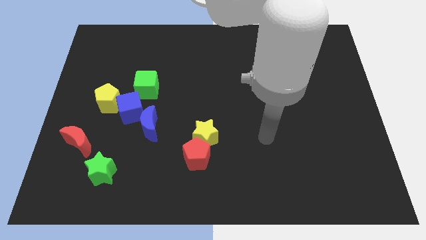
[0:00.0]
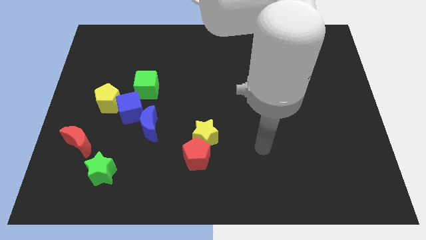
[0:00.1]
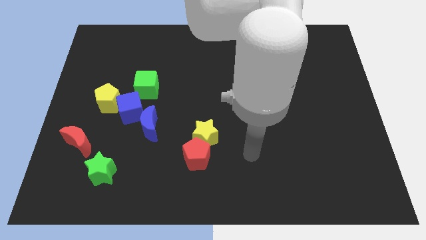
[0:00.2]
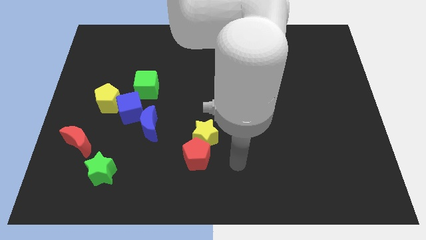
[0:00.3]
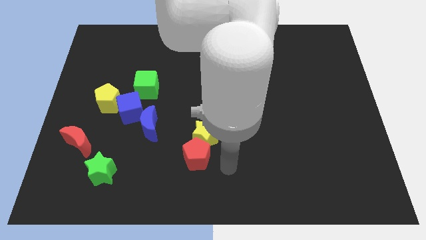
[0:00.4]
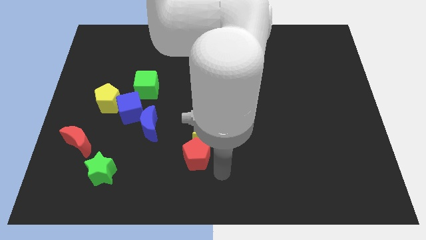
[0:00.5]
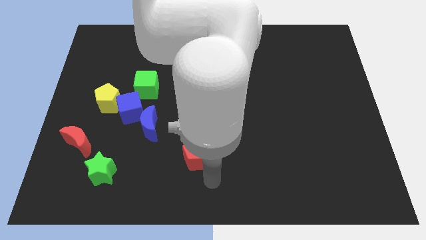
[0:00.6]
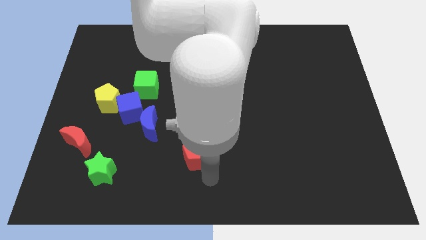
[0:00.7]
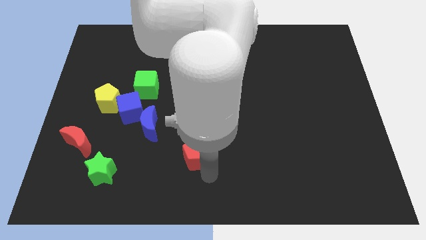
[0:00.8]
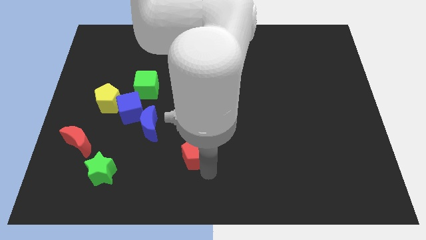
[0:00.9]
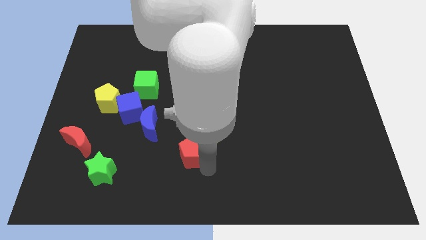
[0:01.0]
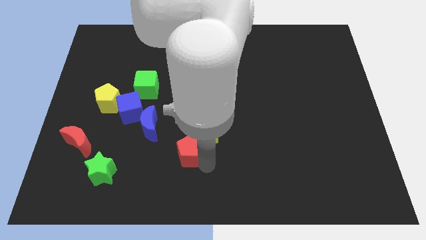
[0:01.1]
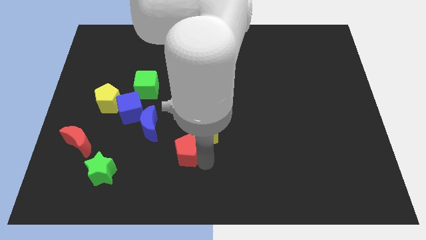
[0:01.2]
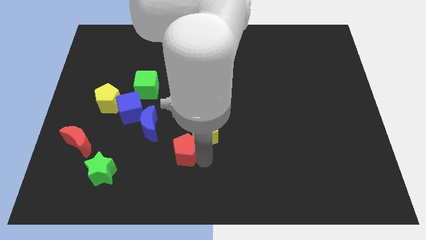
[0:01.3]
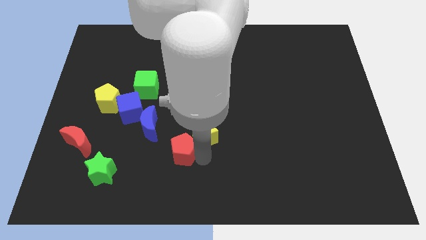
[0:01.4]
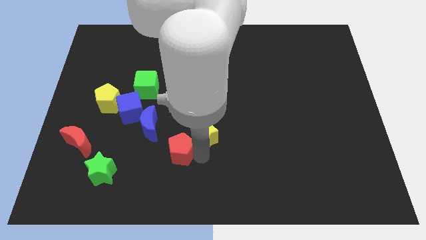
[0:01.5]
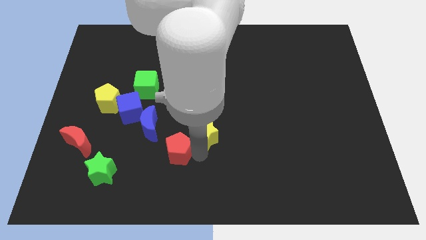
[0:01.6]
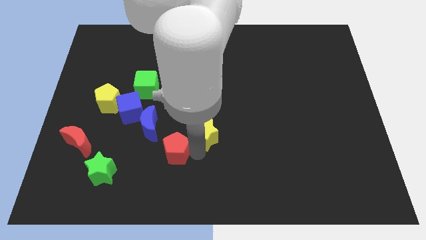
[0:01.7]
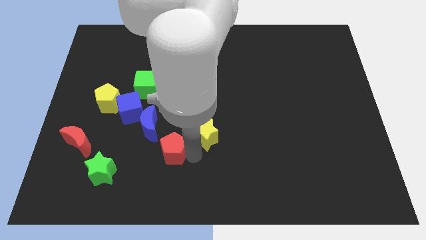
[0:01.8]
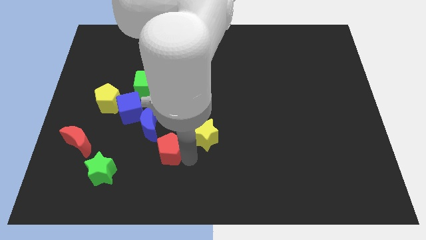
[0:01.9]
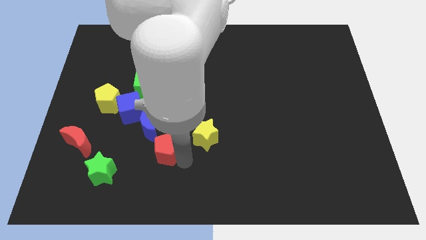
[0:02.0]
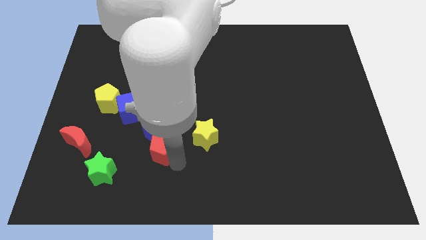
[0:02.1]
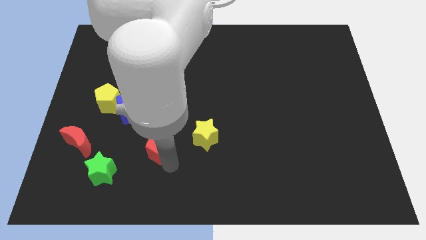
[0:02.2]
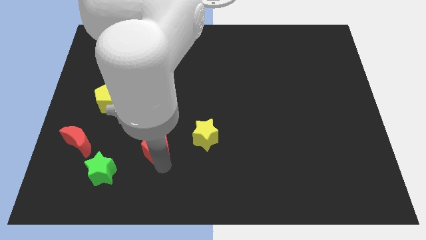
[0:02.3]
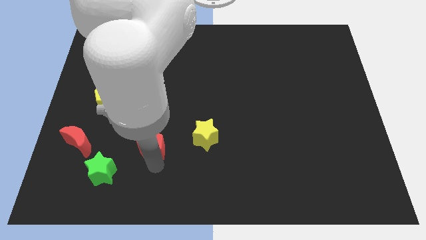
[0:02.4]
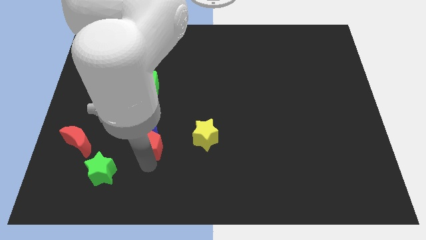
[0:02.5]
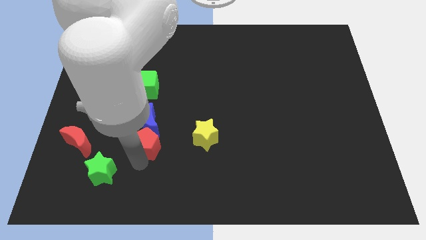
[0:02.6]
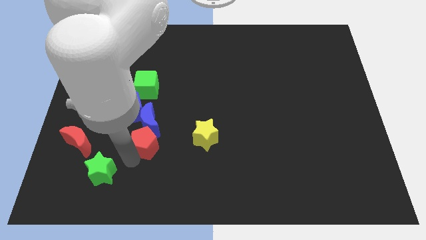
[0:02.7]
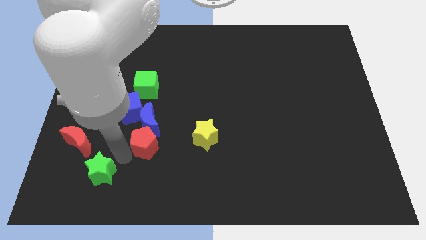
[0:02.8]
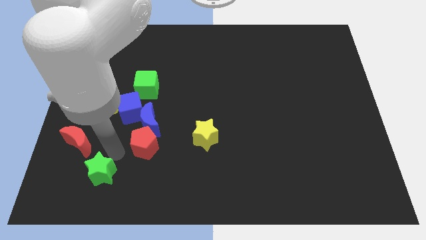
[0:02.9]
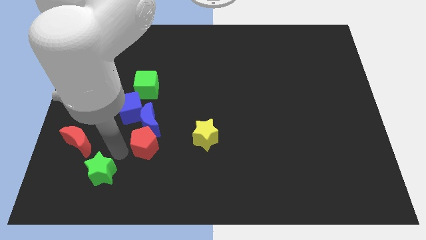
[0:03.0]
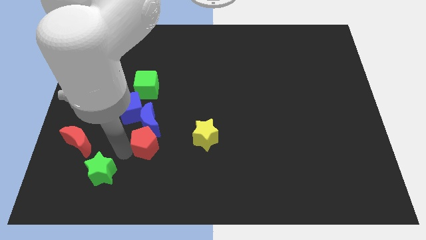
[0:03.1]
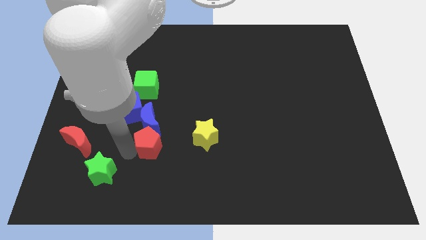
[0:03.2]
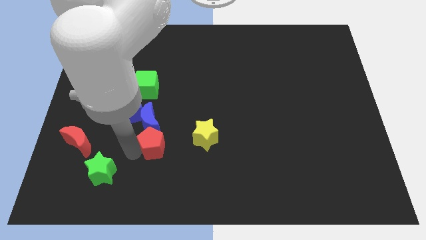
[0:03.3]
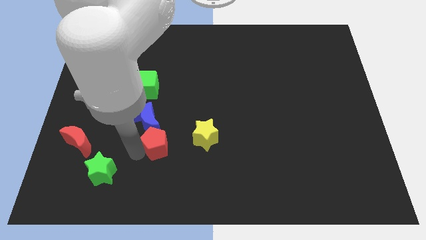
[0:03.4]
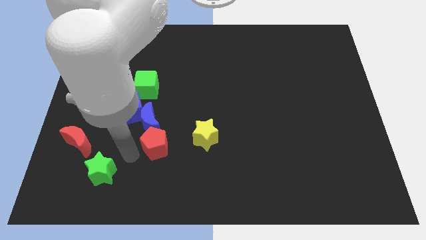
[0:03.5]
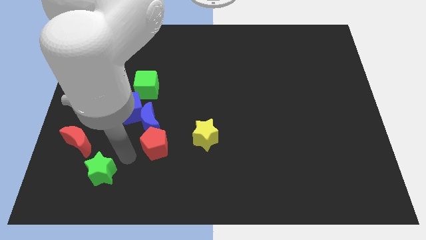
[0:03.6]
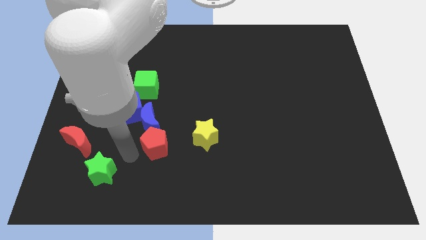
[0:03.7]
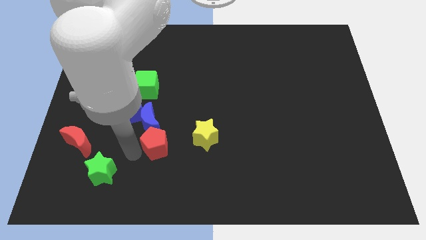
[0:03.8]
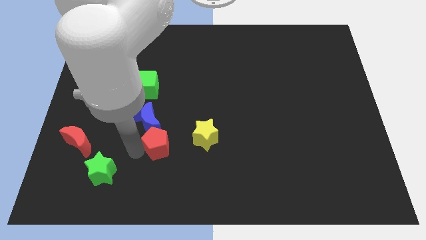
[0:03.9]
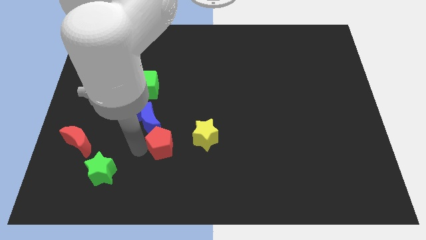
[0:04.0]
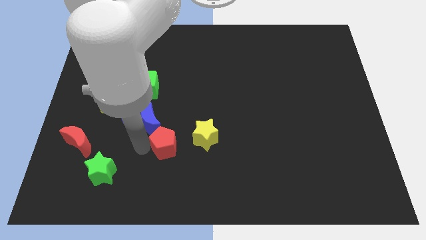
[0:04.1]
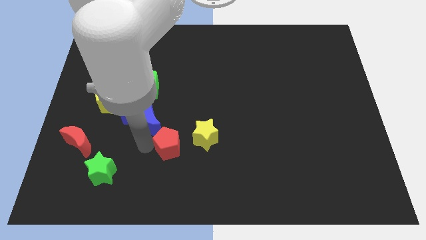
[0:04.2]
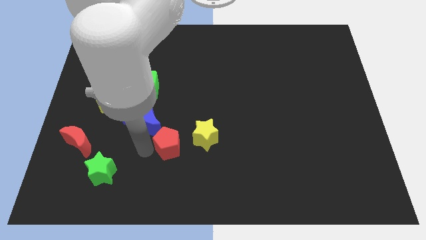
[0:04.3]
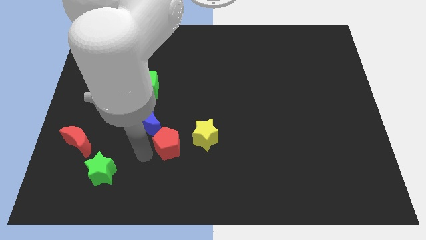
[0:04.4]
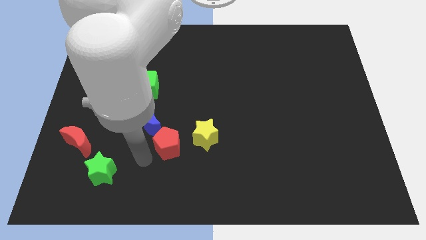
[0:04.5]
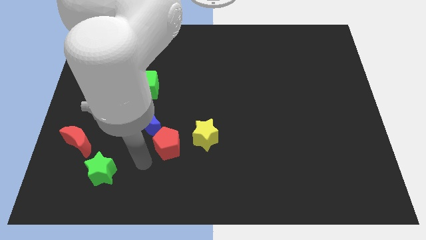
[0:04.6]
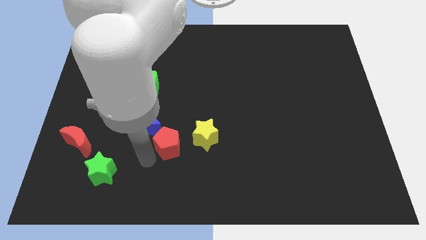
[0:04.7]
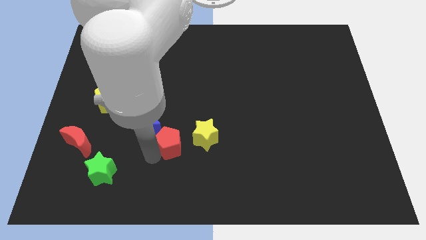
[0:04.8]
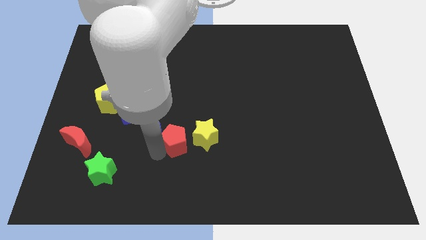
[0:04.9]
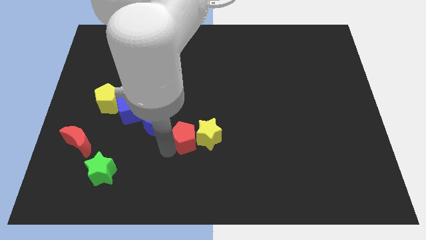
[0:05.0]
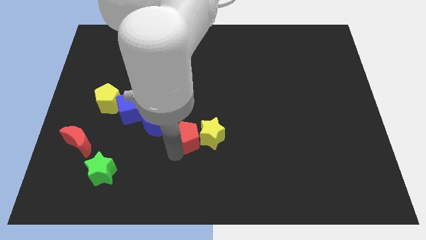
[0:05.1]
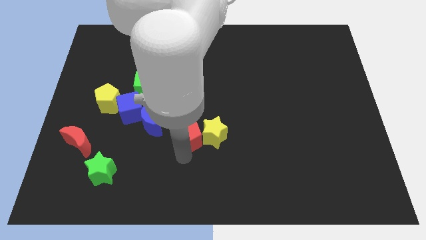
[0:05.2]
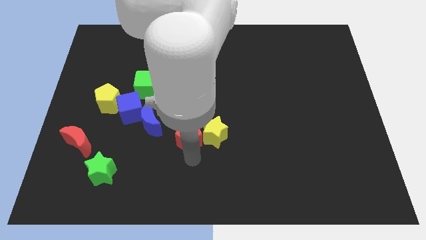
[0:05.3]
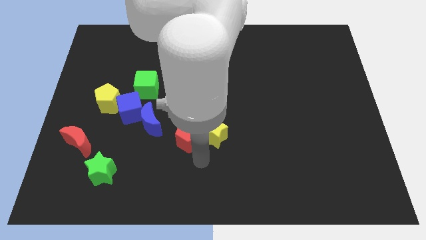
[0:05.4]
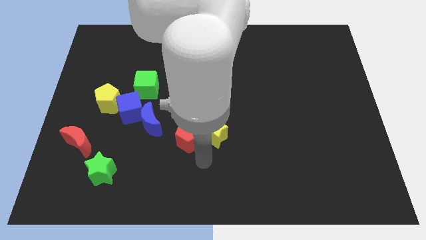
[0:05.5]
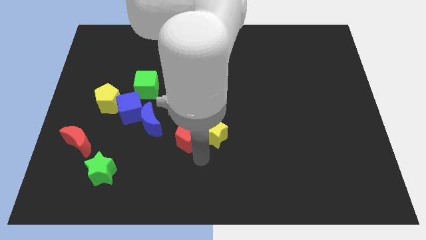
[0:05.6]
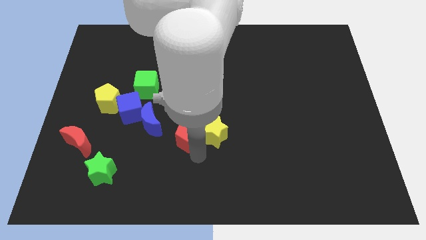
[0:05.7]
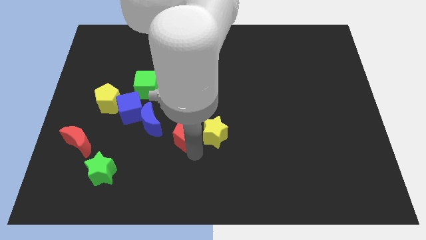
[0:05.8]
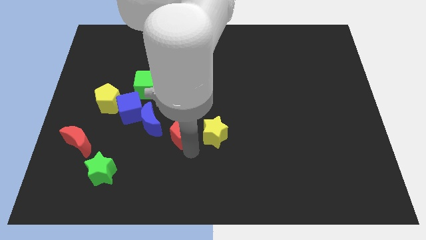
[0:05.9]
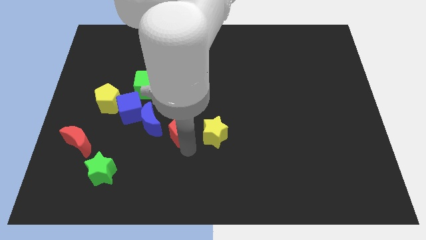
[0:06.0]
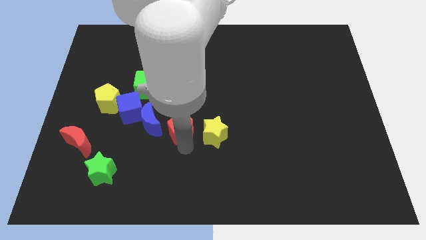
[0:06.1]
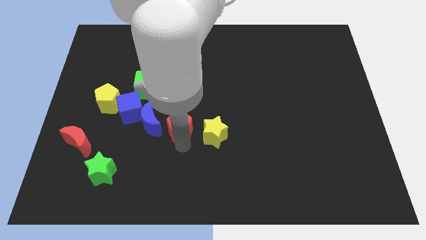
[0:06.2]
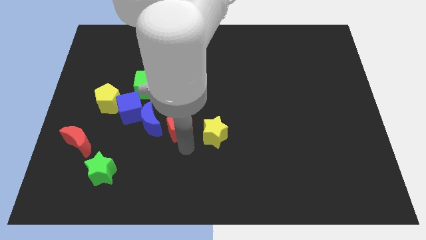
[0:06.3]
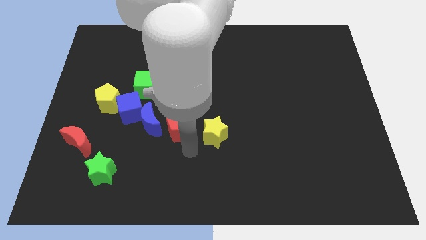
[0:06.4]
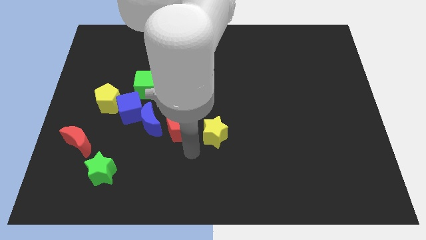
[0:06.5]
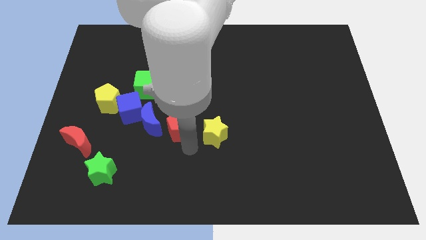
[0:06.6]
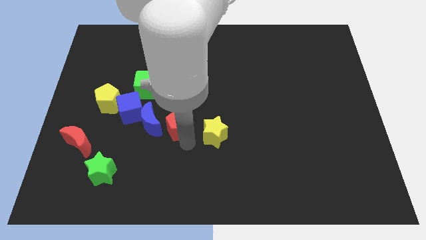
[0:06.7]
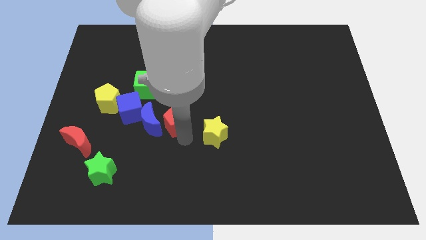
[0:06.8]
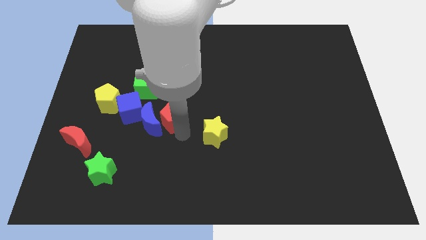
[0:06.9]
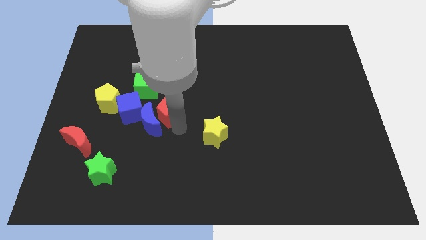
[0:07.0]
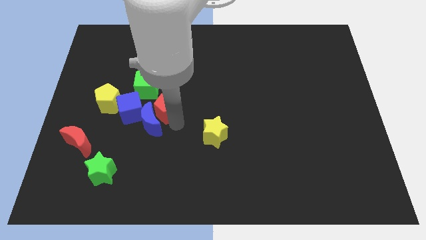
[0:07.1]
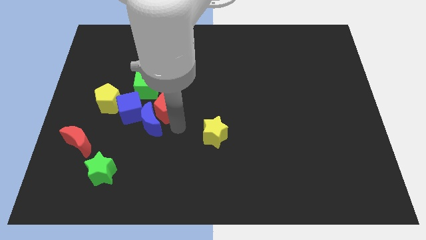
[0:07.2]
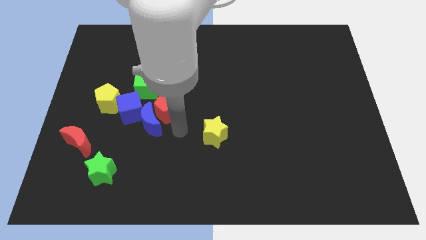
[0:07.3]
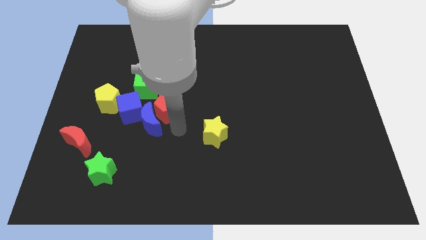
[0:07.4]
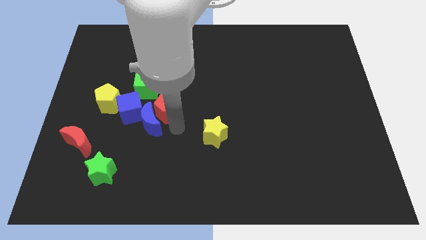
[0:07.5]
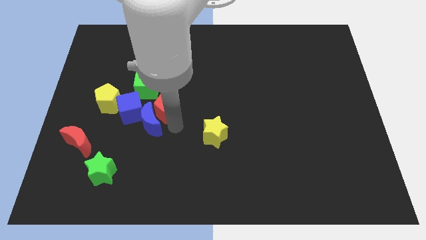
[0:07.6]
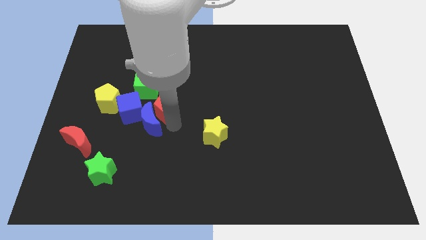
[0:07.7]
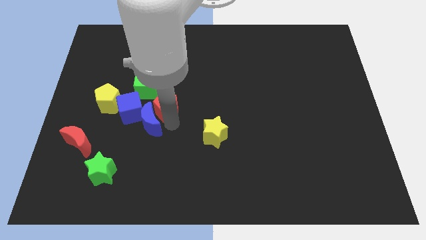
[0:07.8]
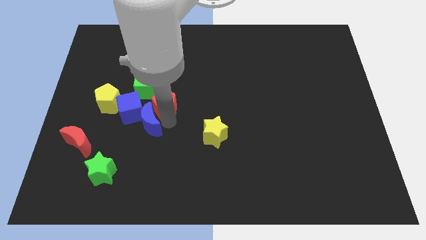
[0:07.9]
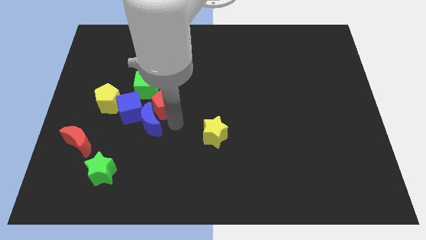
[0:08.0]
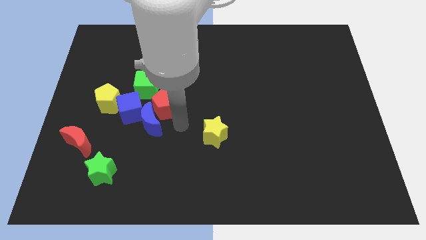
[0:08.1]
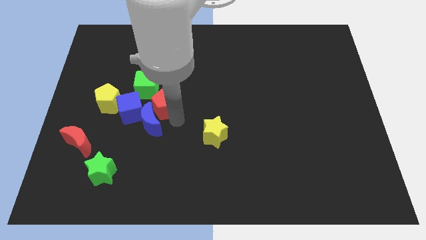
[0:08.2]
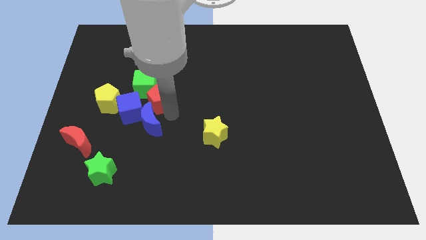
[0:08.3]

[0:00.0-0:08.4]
push the red pentagon close to the green cube
